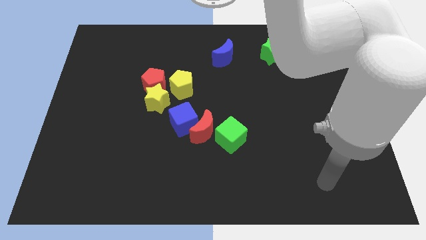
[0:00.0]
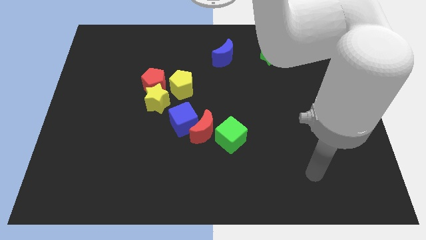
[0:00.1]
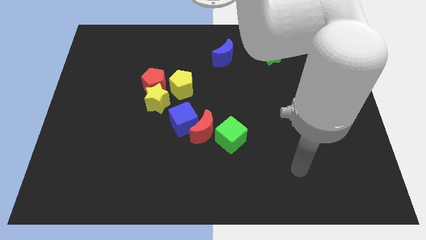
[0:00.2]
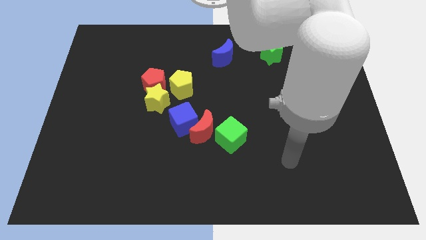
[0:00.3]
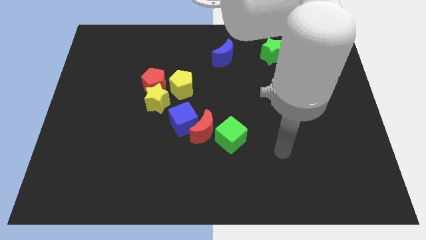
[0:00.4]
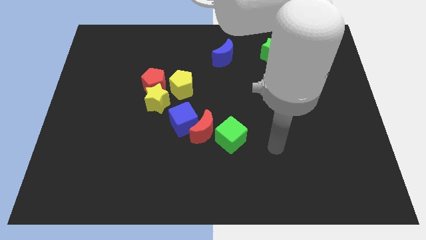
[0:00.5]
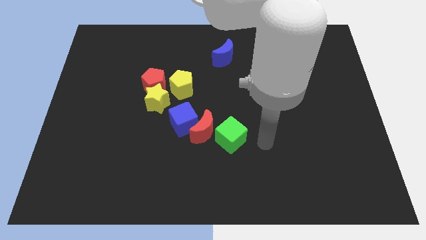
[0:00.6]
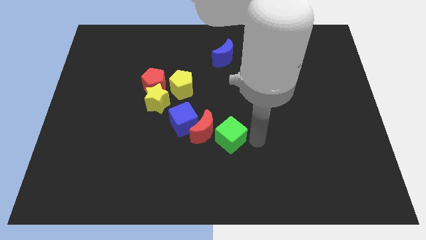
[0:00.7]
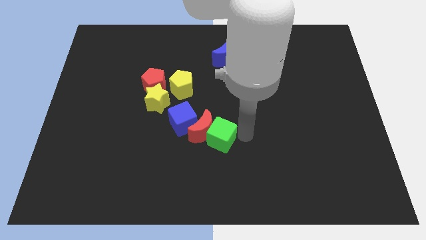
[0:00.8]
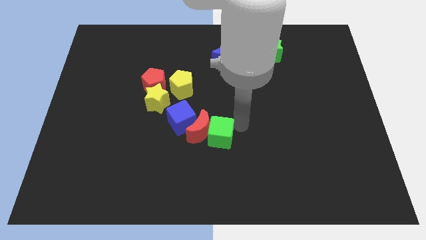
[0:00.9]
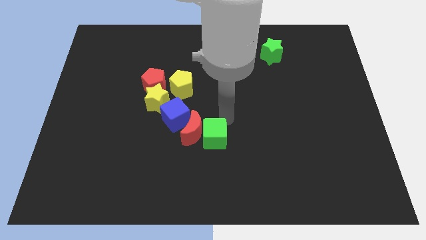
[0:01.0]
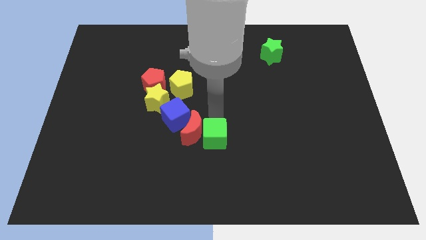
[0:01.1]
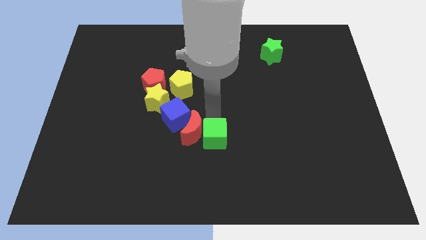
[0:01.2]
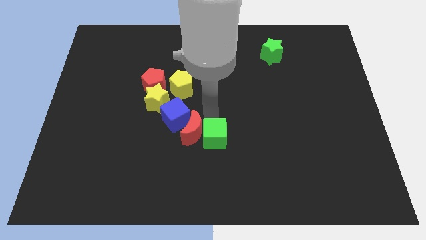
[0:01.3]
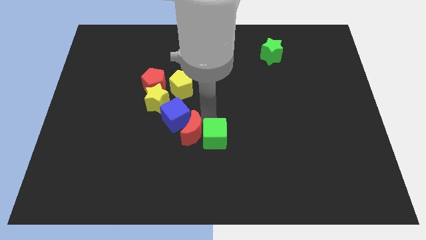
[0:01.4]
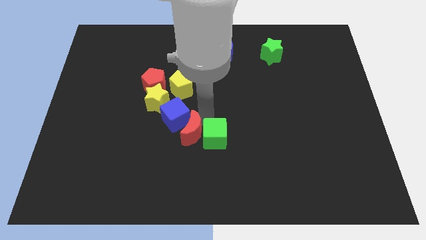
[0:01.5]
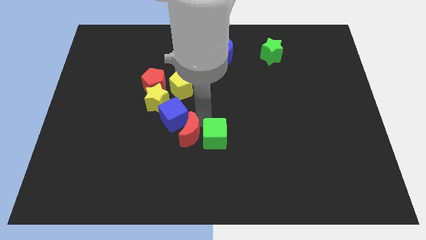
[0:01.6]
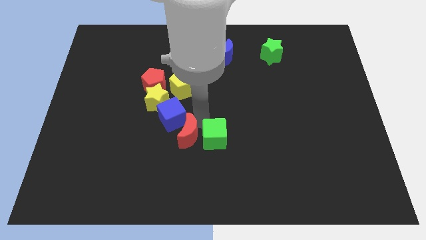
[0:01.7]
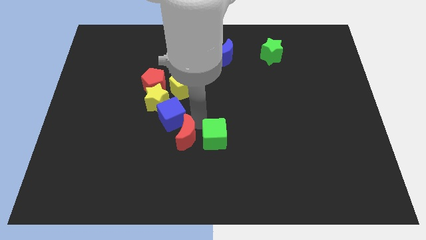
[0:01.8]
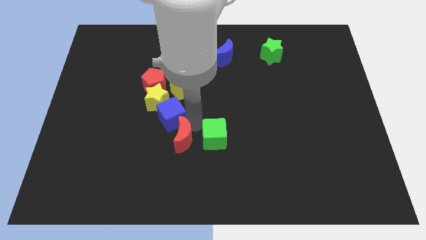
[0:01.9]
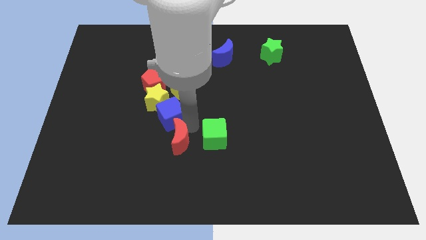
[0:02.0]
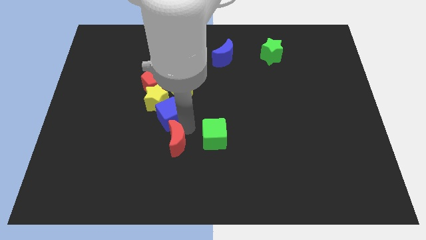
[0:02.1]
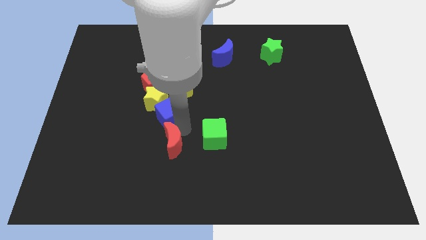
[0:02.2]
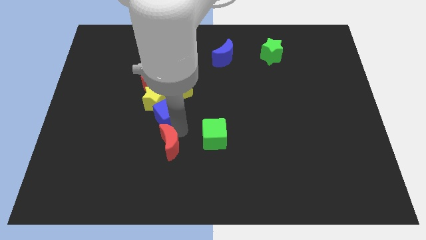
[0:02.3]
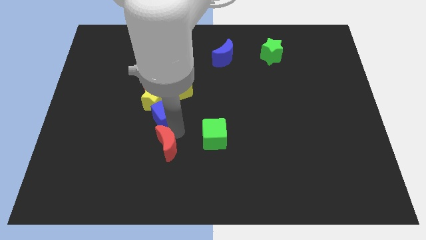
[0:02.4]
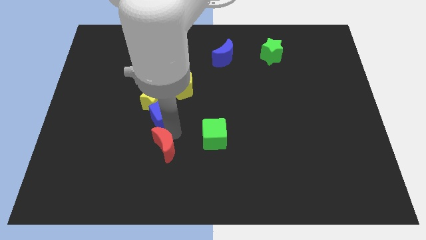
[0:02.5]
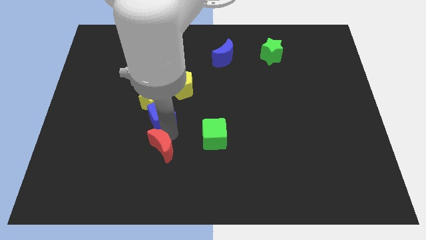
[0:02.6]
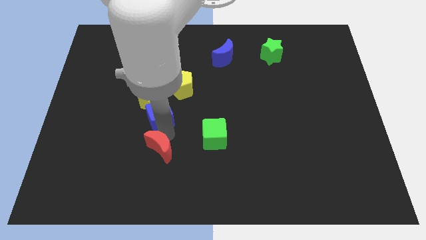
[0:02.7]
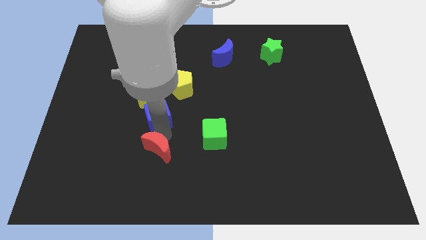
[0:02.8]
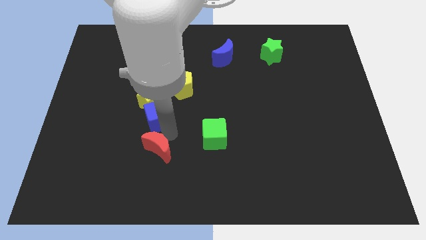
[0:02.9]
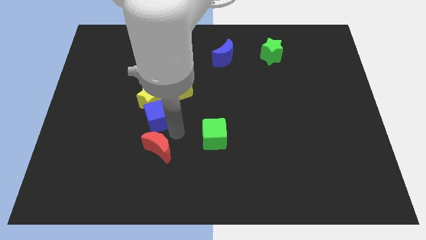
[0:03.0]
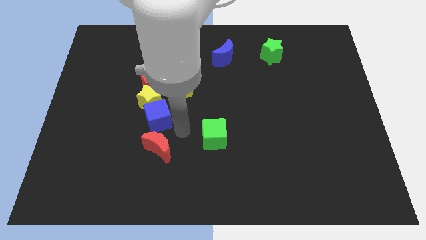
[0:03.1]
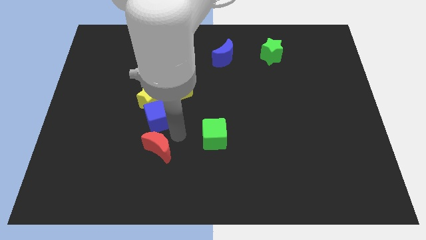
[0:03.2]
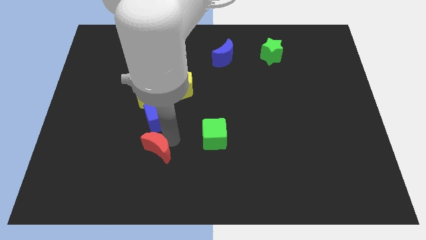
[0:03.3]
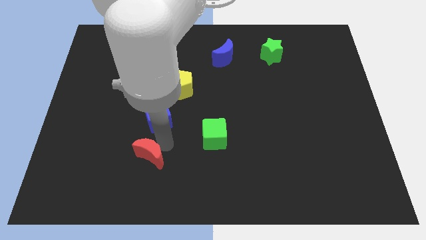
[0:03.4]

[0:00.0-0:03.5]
move the red moon away from the blue cube and green cube

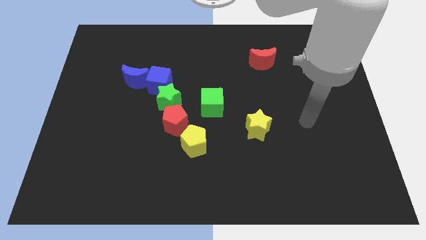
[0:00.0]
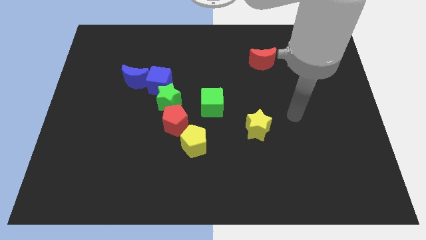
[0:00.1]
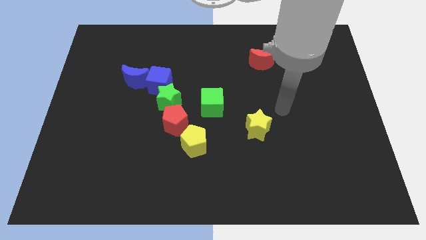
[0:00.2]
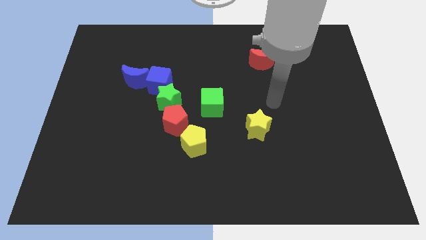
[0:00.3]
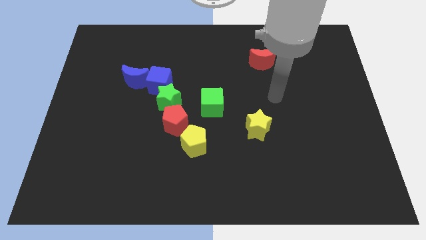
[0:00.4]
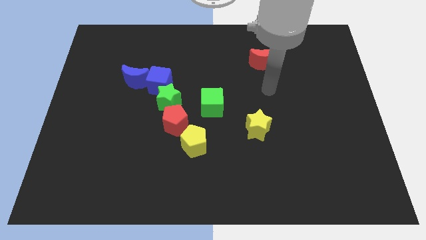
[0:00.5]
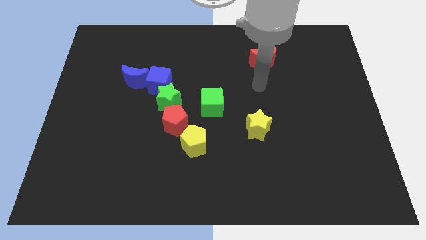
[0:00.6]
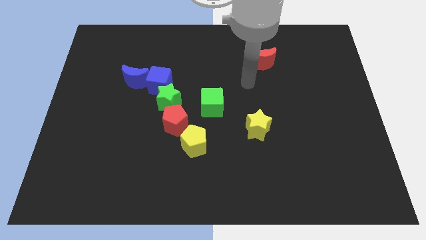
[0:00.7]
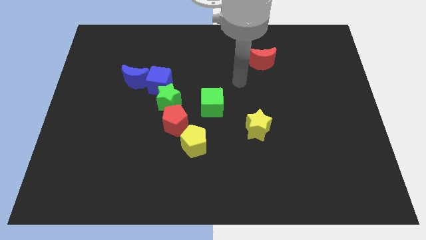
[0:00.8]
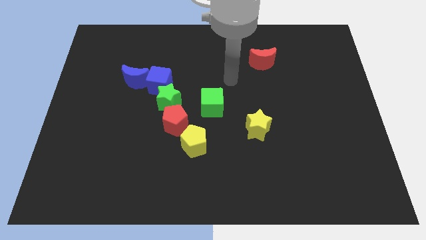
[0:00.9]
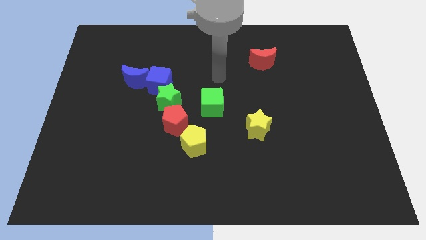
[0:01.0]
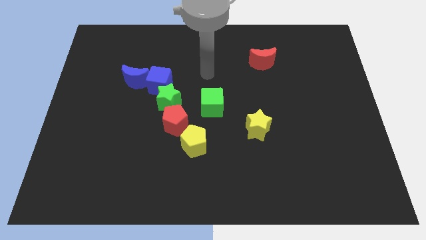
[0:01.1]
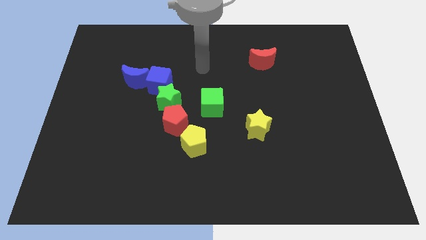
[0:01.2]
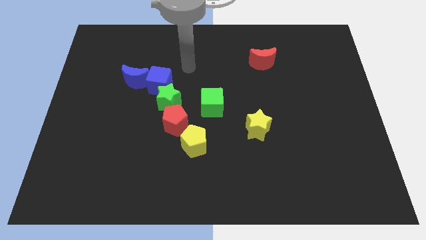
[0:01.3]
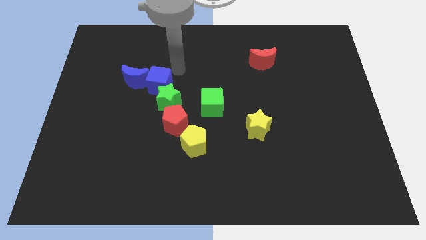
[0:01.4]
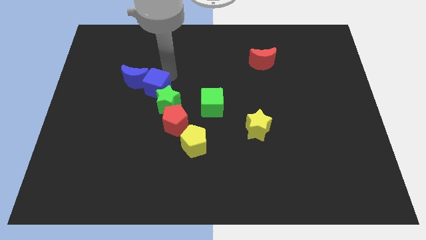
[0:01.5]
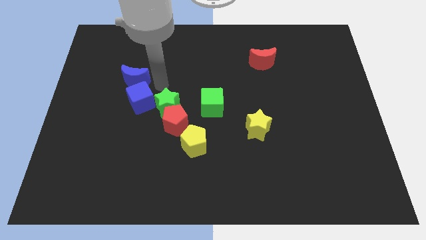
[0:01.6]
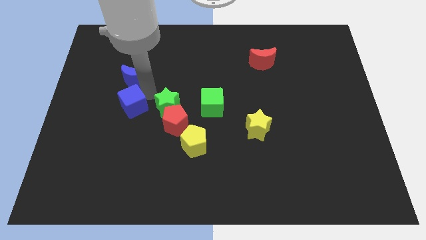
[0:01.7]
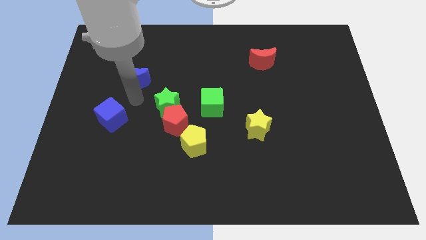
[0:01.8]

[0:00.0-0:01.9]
move the blue moon away from the blue cube

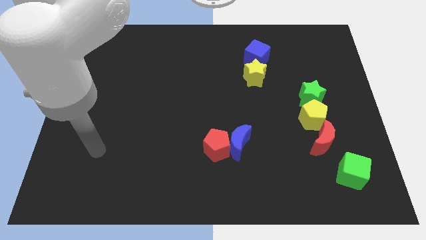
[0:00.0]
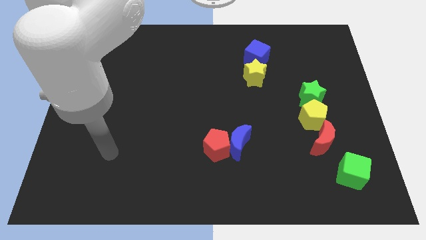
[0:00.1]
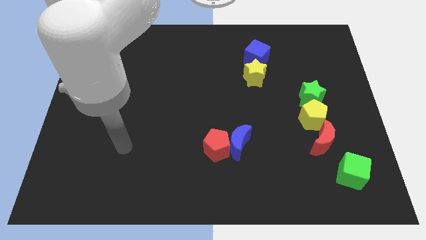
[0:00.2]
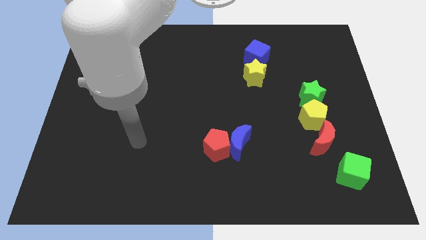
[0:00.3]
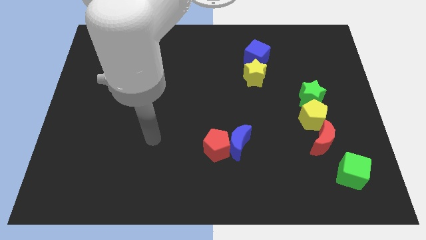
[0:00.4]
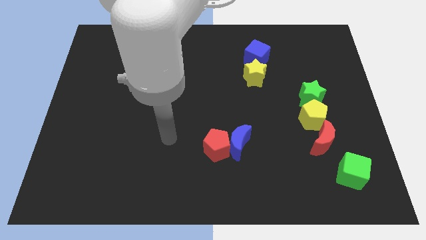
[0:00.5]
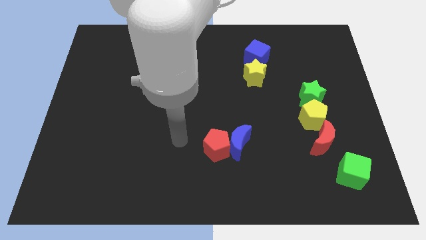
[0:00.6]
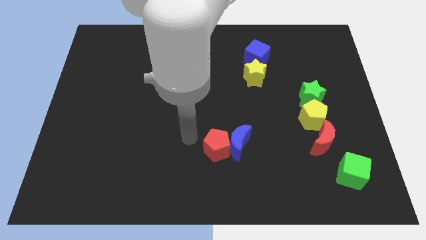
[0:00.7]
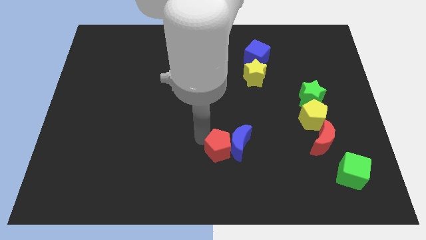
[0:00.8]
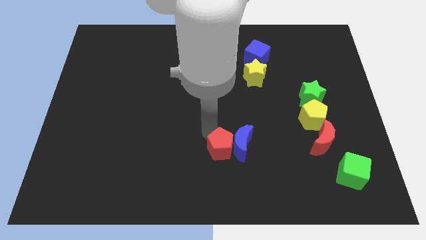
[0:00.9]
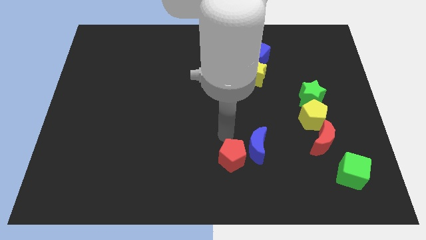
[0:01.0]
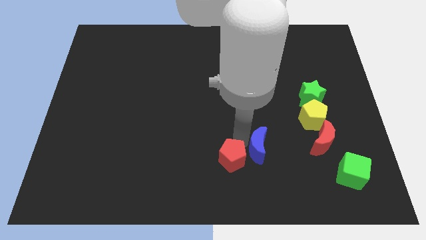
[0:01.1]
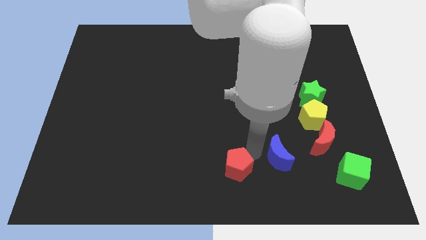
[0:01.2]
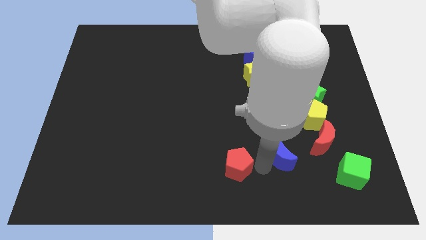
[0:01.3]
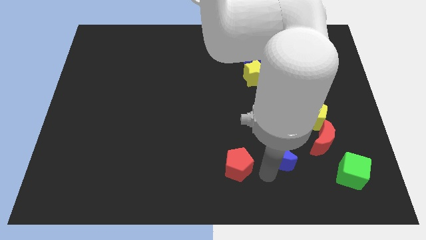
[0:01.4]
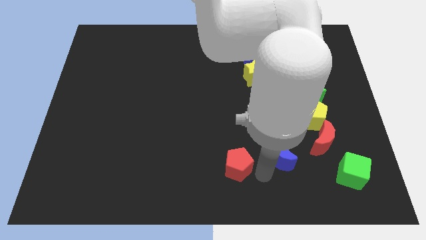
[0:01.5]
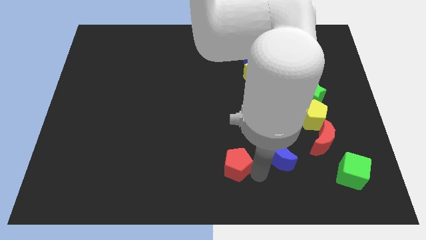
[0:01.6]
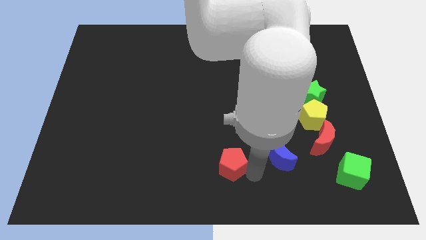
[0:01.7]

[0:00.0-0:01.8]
pull the red pentagon apart from the blue moon

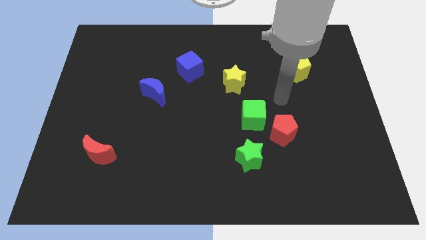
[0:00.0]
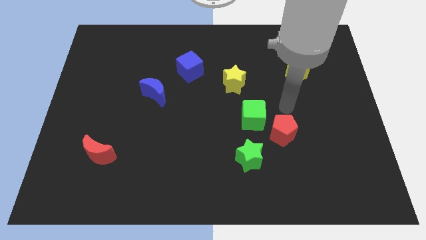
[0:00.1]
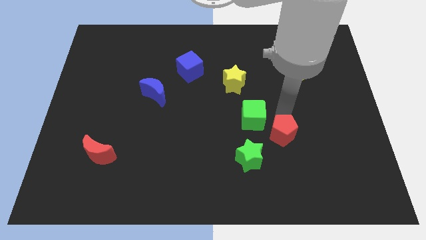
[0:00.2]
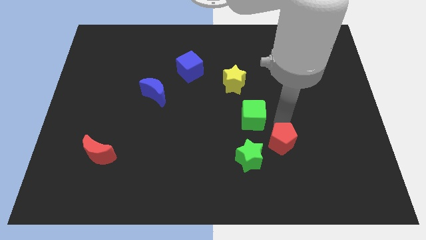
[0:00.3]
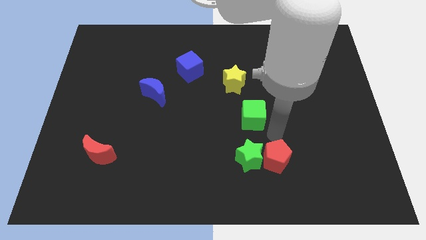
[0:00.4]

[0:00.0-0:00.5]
pull the green cube apart from the red pentagon

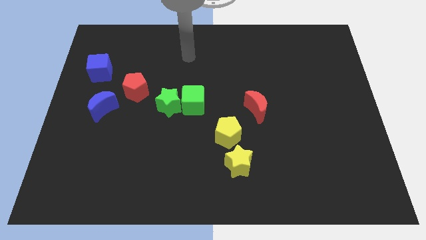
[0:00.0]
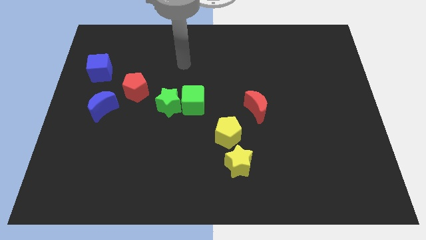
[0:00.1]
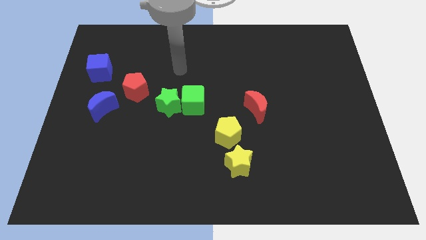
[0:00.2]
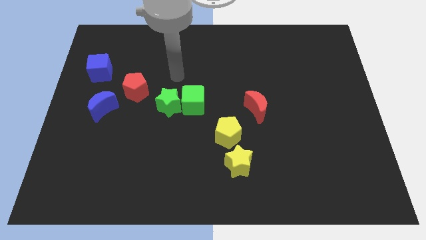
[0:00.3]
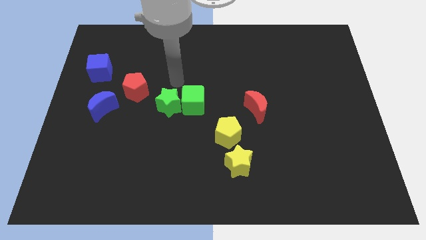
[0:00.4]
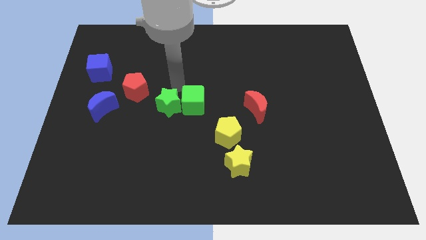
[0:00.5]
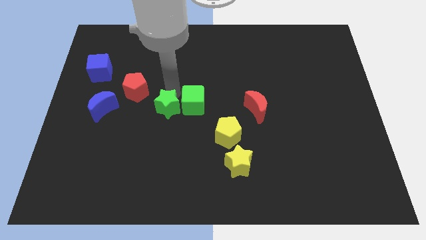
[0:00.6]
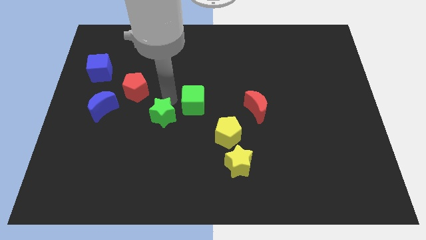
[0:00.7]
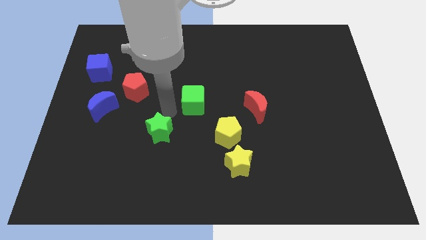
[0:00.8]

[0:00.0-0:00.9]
pull the green cube apart from the green star

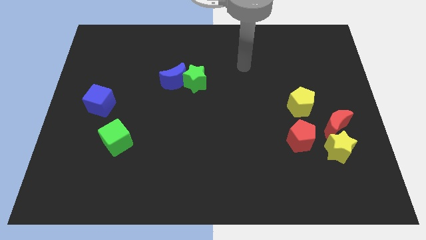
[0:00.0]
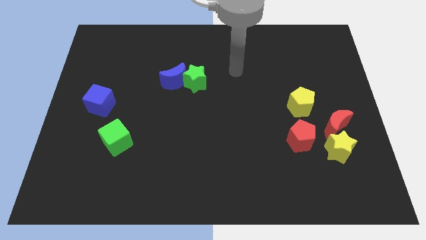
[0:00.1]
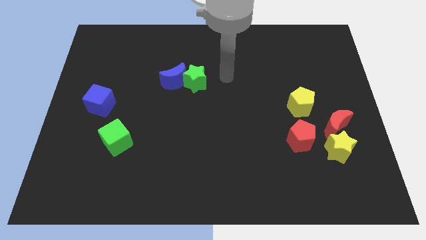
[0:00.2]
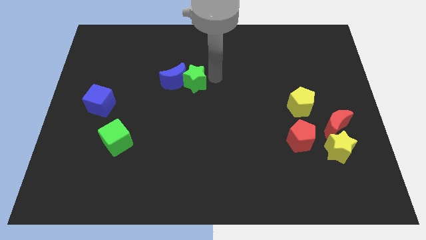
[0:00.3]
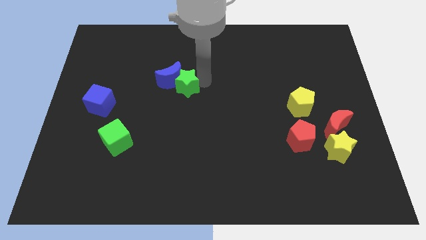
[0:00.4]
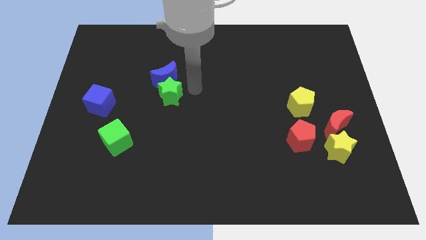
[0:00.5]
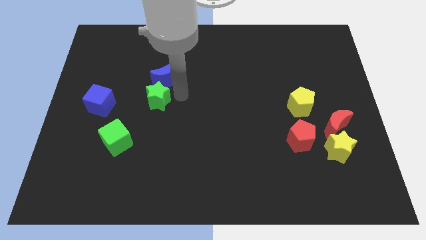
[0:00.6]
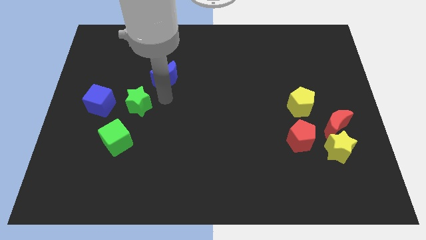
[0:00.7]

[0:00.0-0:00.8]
move the blue moon away from the green star
